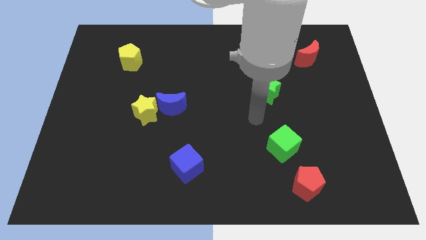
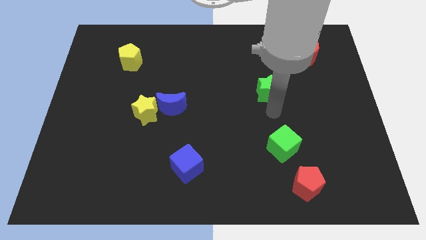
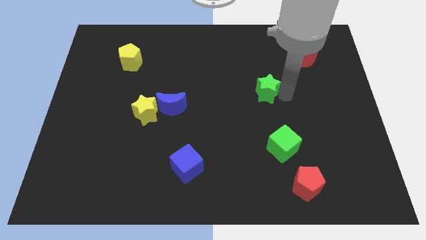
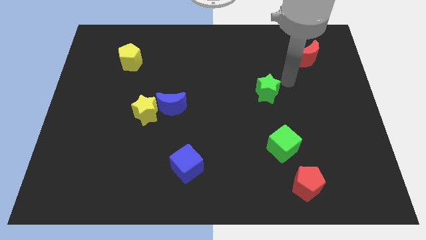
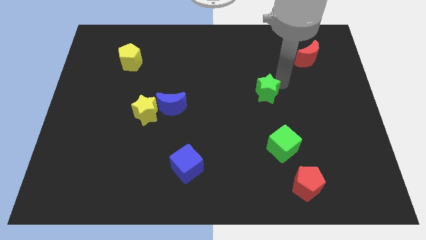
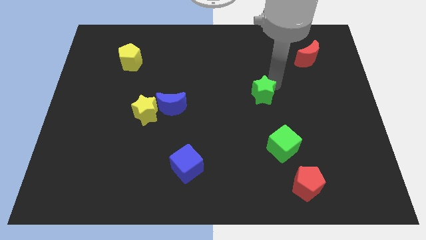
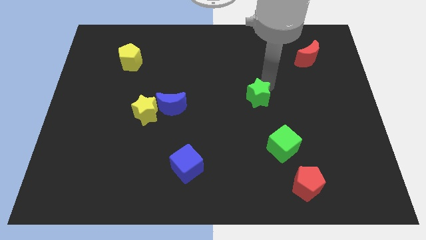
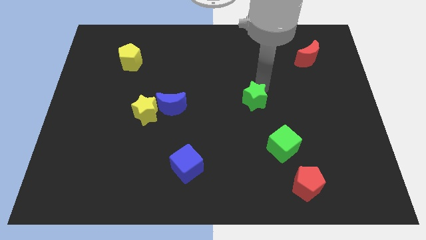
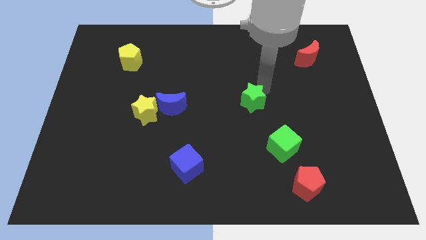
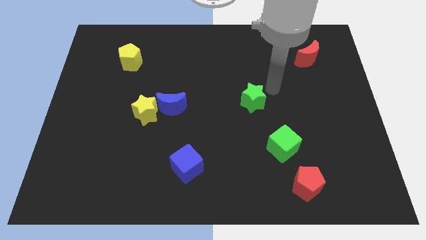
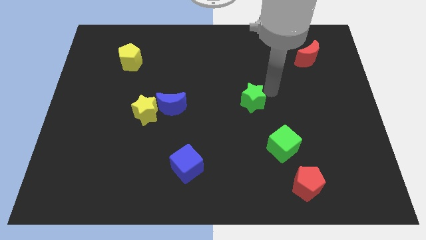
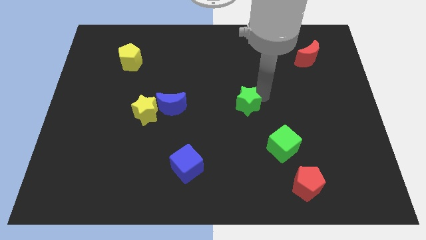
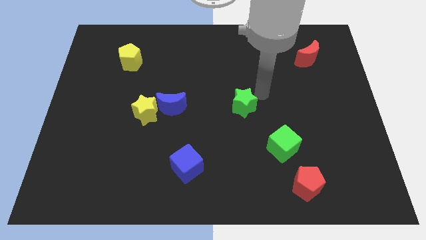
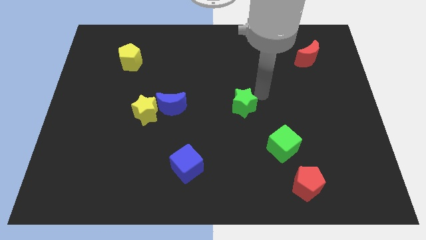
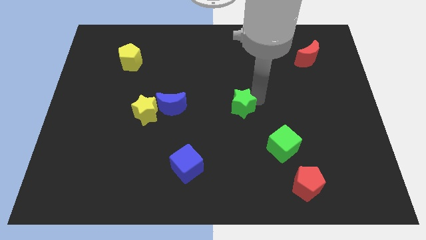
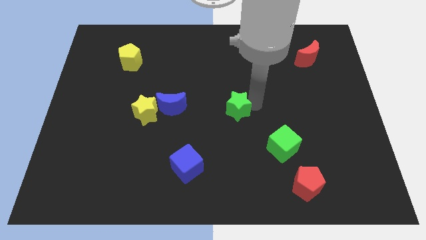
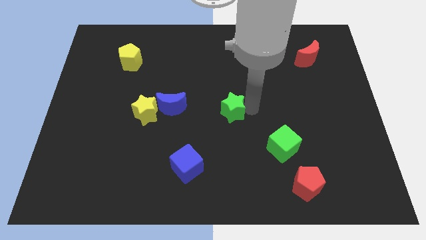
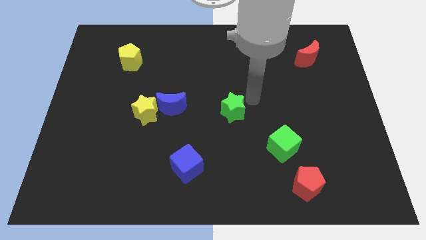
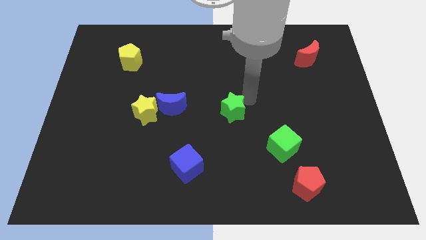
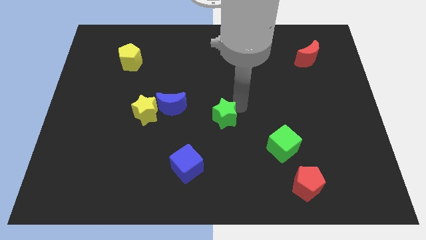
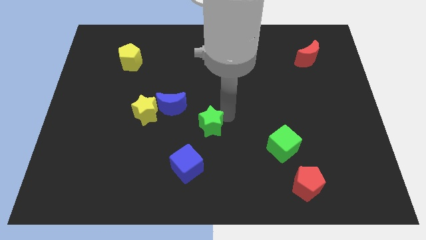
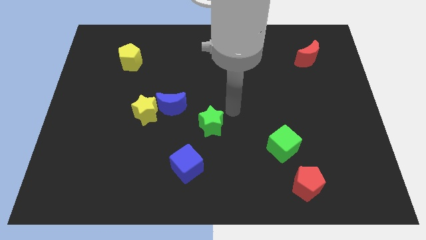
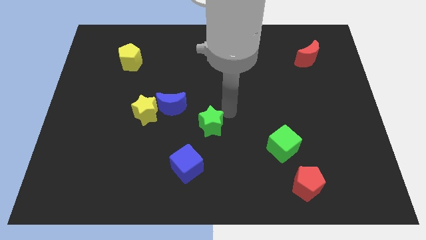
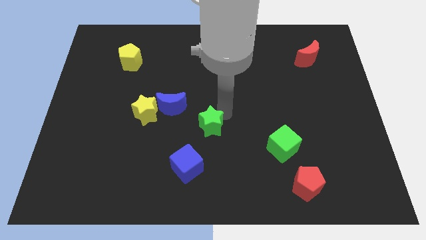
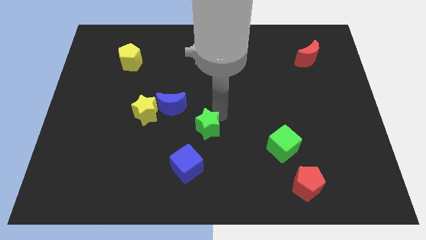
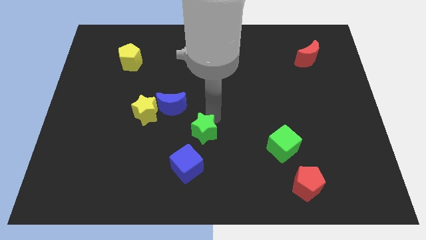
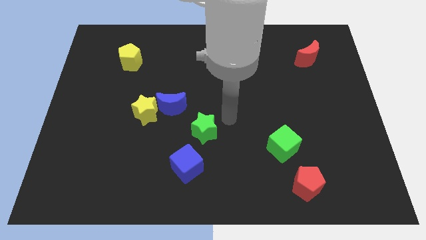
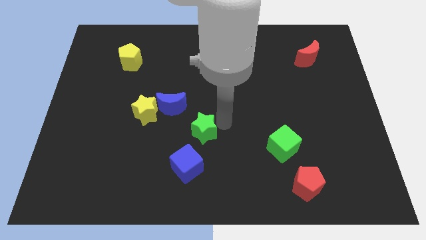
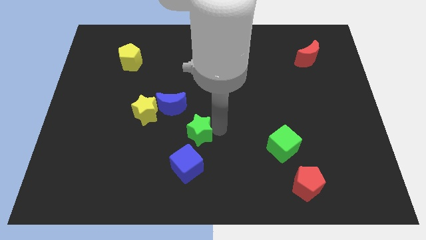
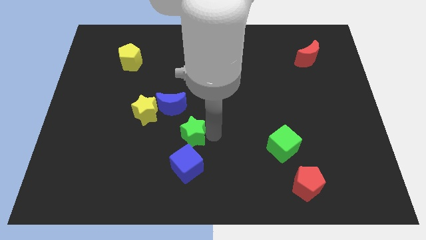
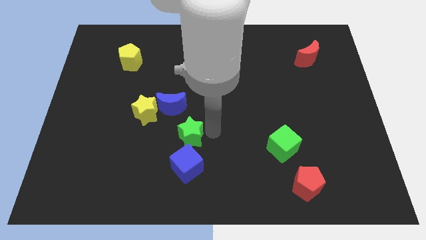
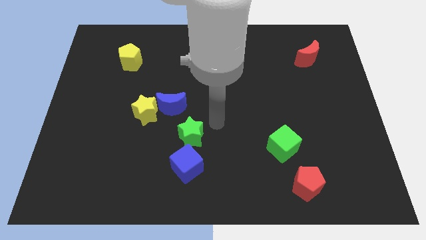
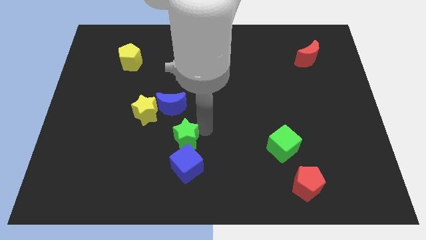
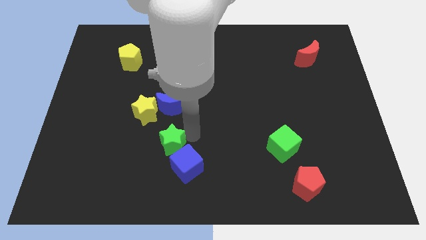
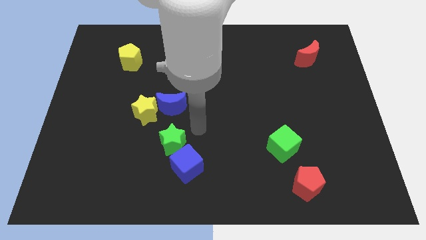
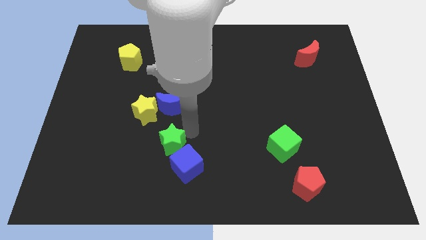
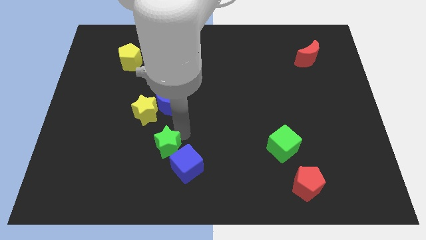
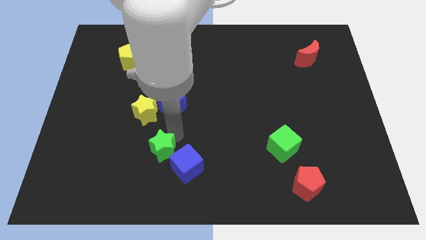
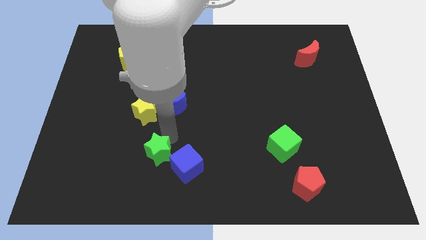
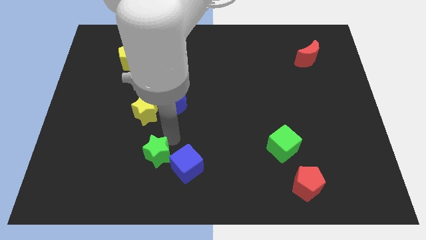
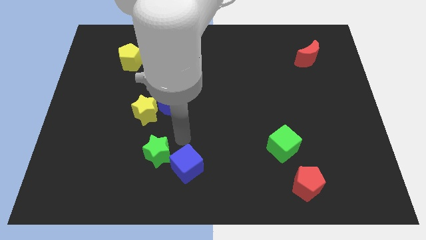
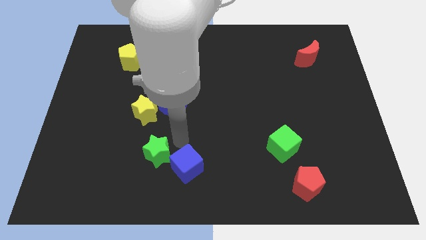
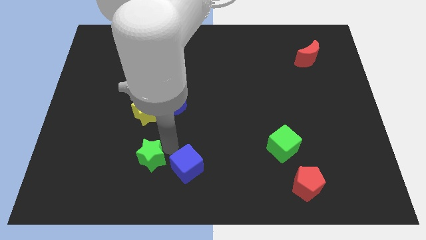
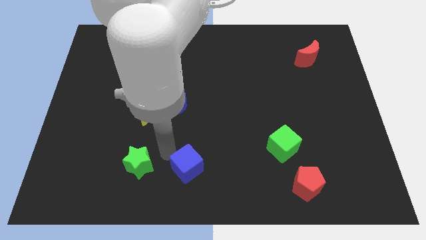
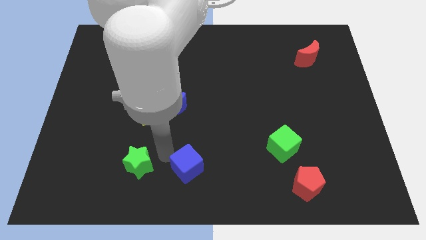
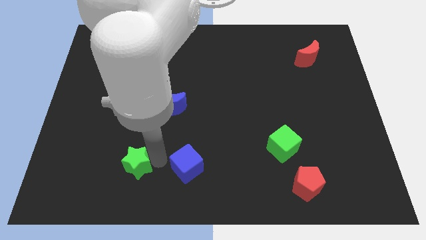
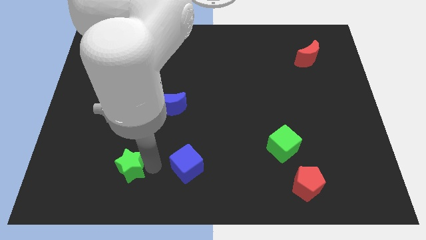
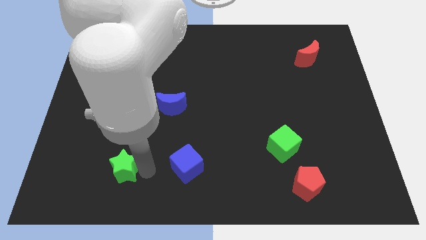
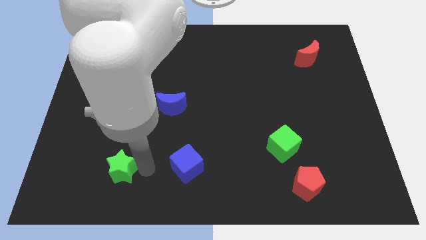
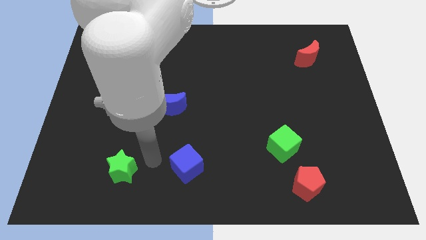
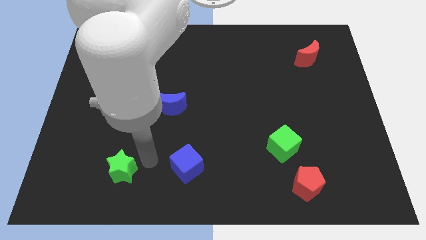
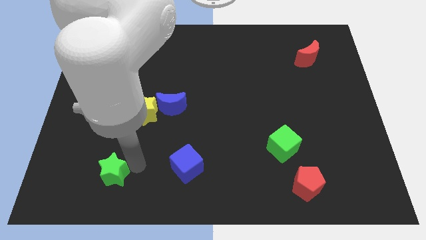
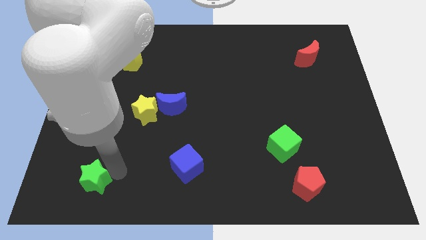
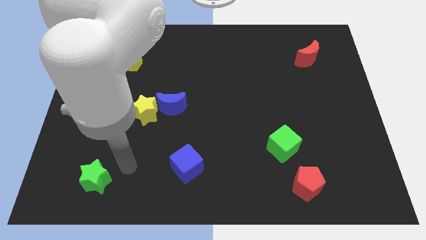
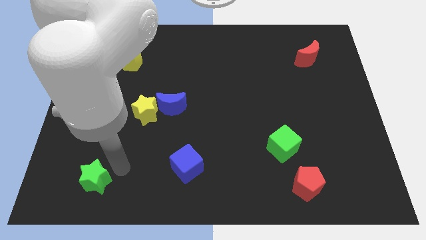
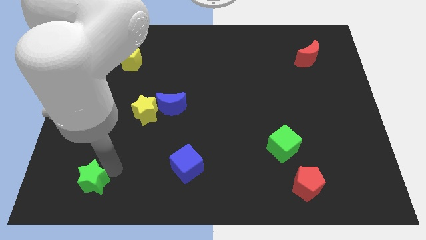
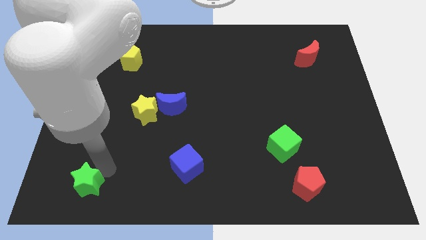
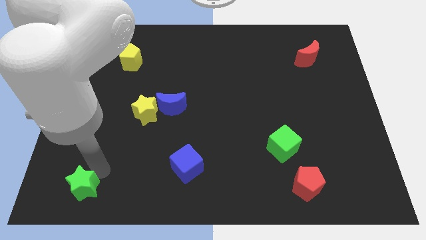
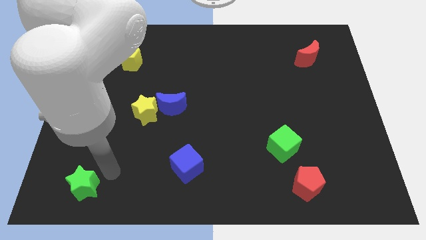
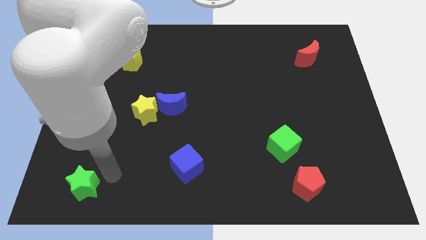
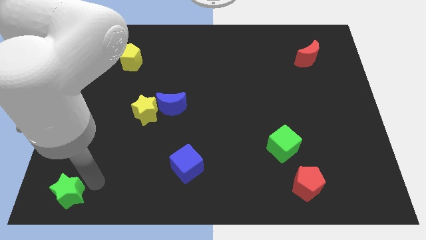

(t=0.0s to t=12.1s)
slide the green star to the bottom left

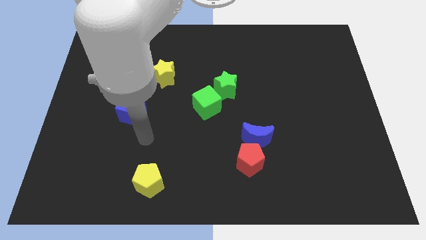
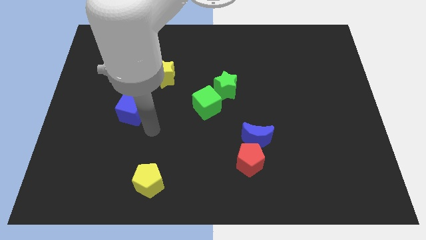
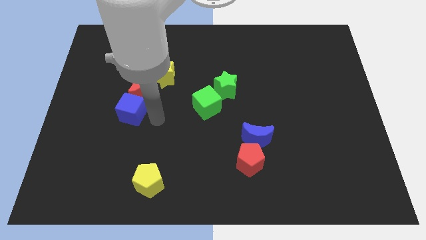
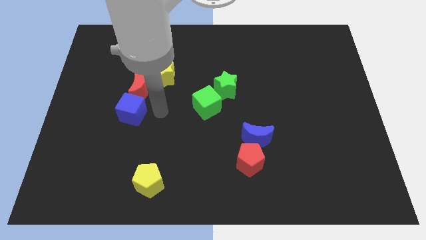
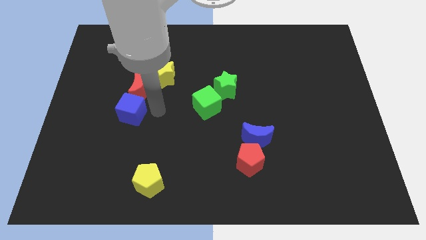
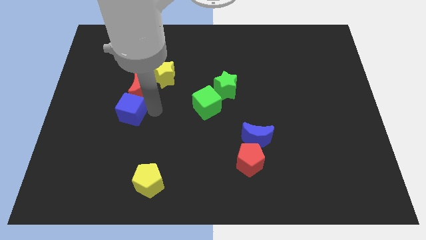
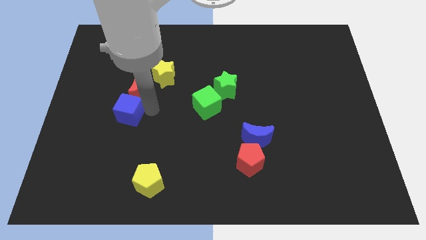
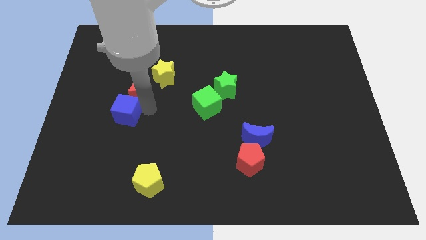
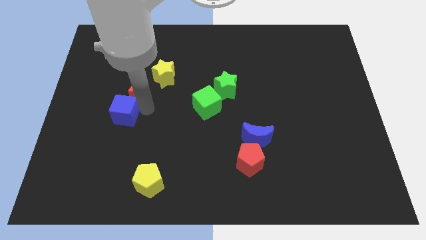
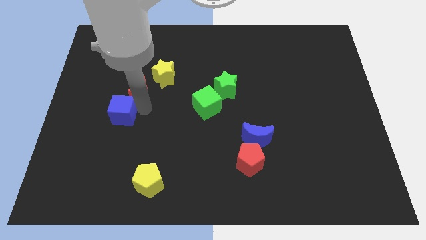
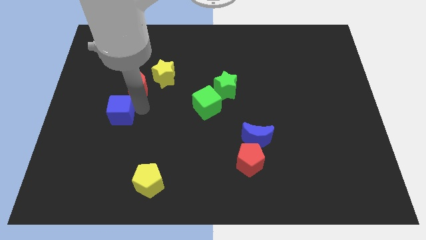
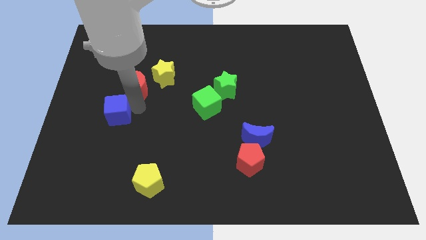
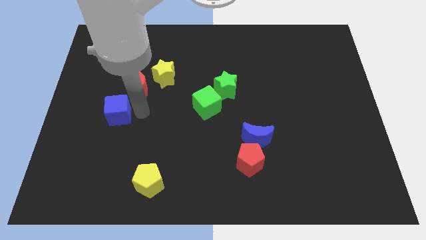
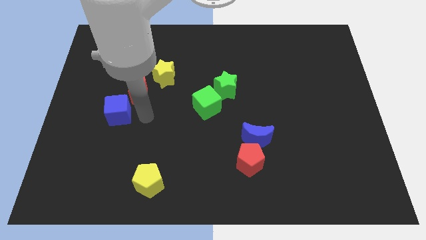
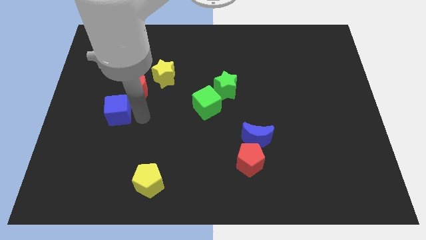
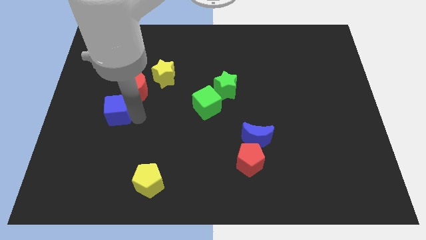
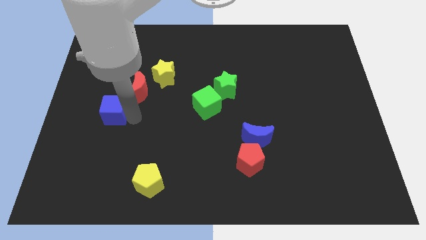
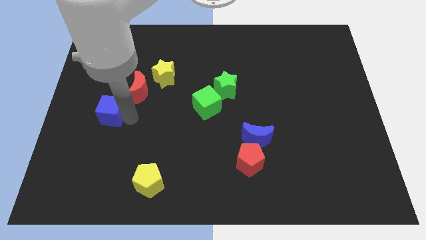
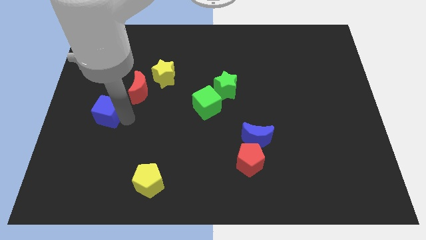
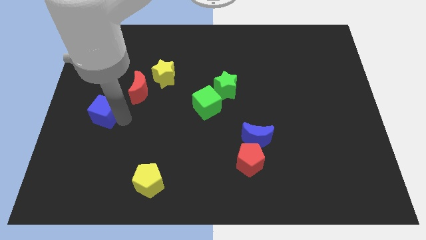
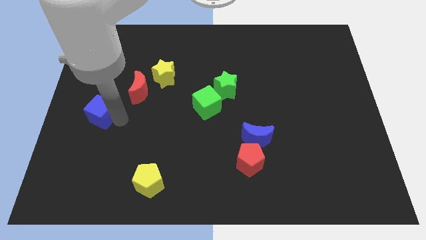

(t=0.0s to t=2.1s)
slide the blue cube to the left side of the board

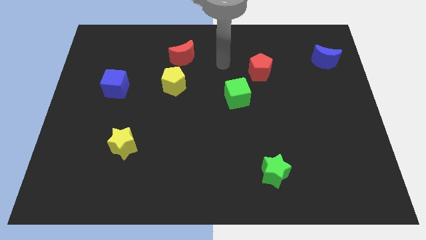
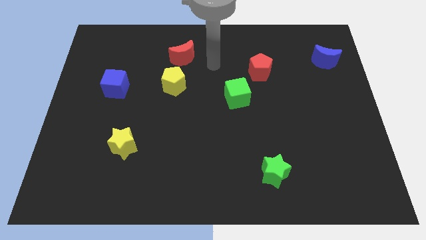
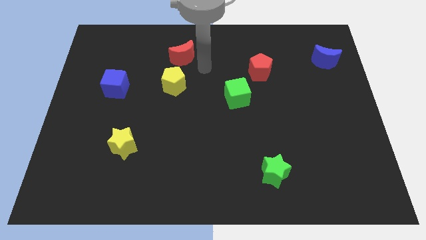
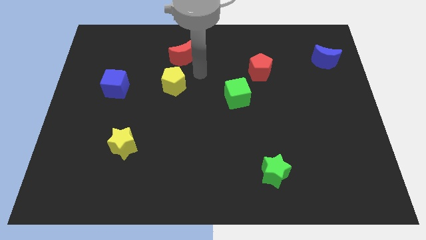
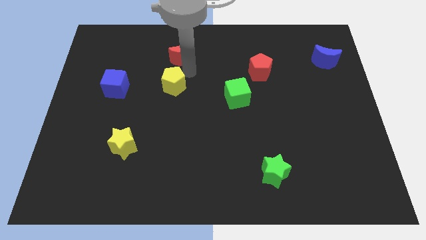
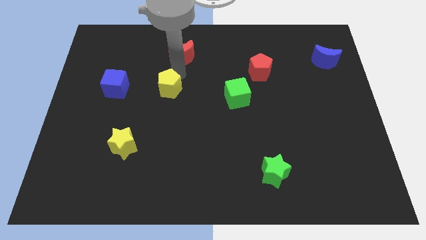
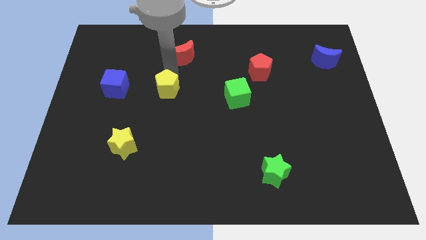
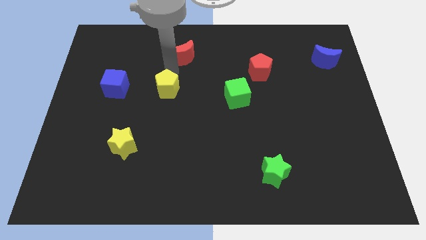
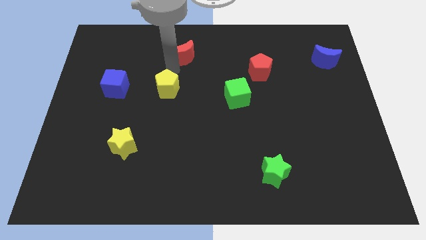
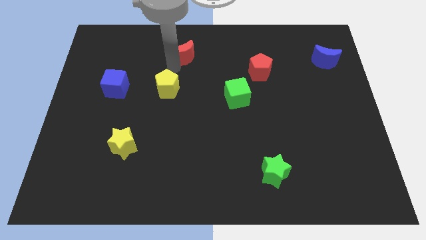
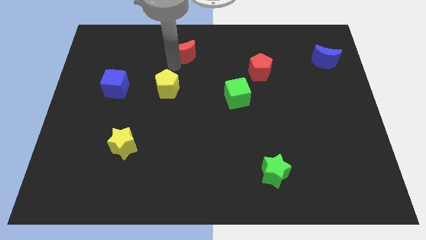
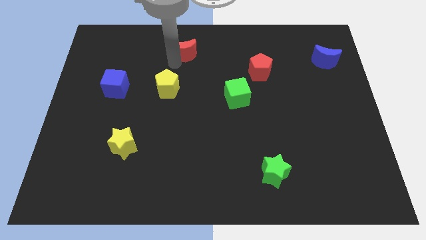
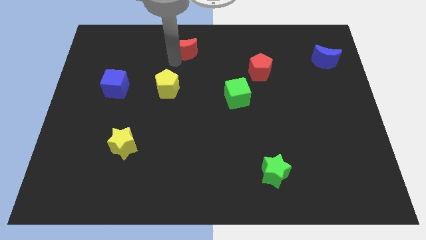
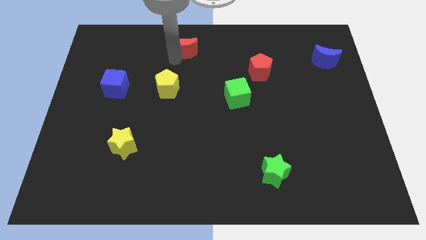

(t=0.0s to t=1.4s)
slide the red moon to the towards your base
